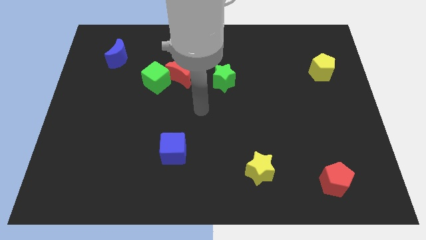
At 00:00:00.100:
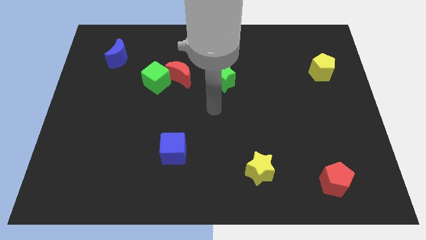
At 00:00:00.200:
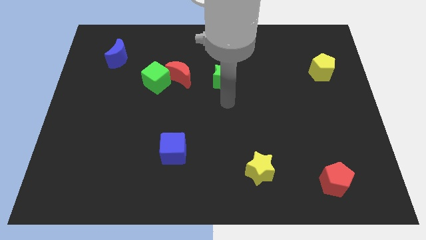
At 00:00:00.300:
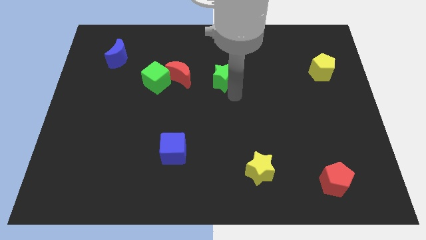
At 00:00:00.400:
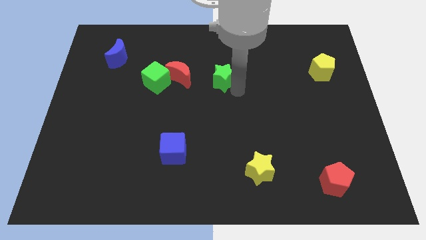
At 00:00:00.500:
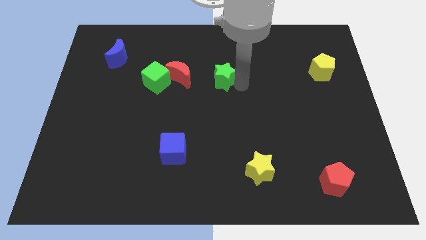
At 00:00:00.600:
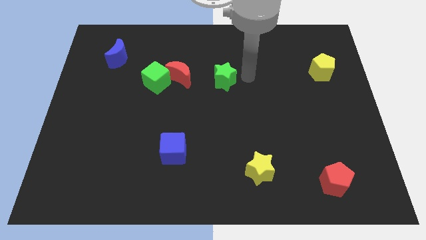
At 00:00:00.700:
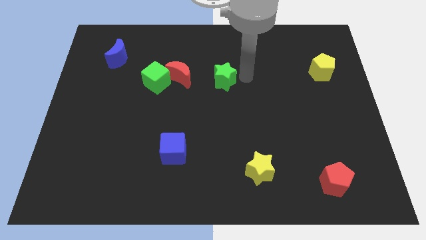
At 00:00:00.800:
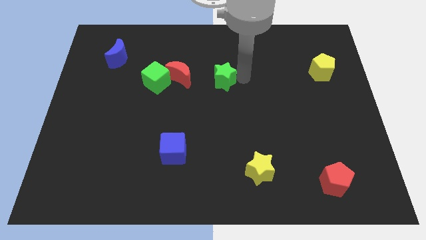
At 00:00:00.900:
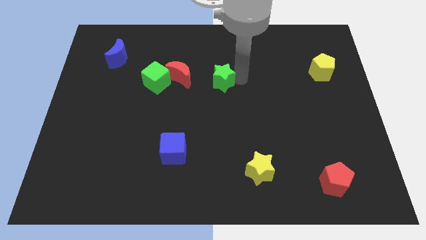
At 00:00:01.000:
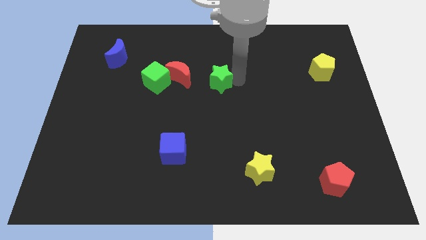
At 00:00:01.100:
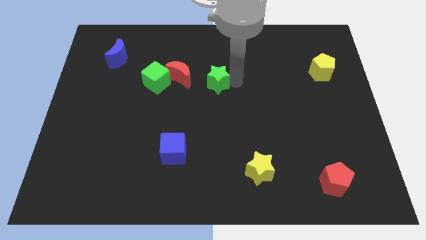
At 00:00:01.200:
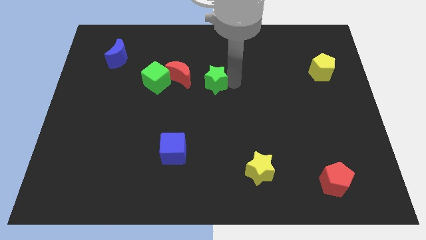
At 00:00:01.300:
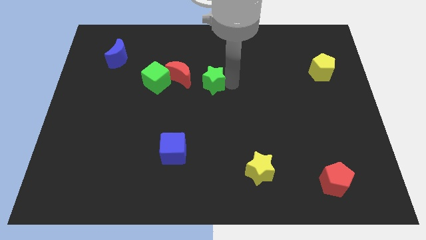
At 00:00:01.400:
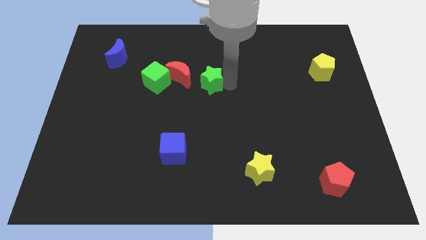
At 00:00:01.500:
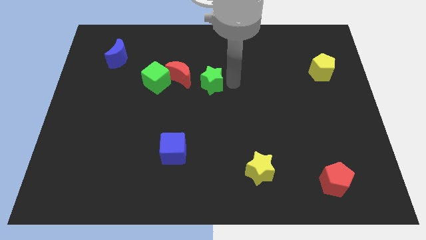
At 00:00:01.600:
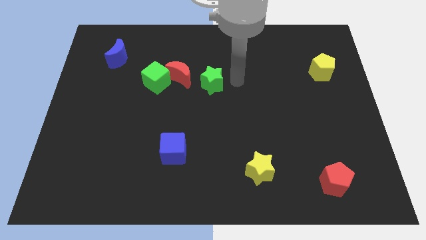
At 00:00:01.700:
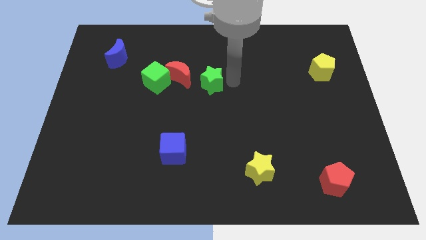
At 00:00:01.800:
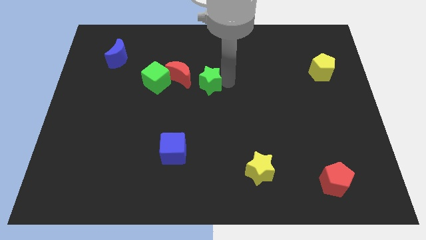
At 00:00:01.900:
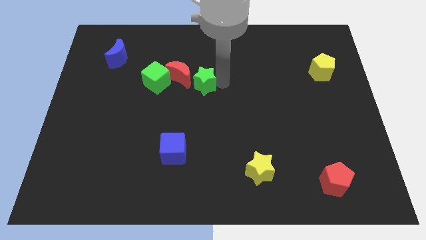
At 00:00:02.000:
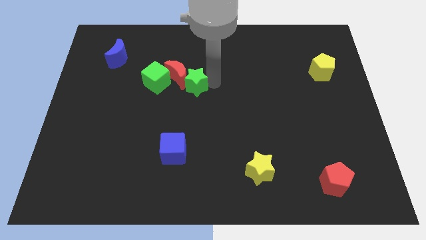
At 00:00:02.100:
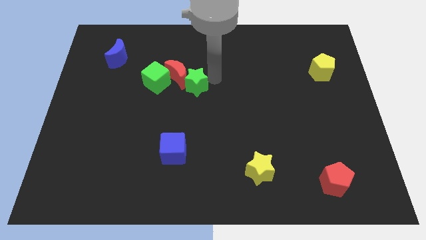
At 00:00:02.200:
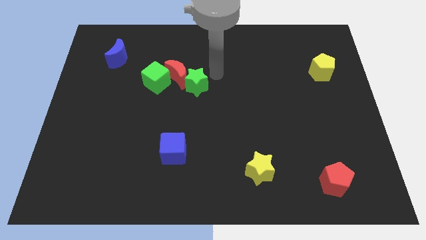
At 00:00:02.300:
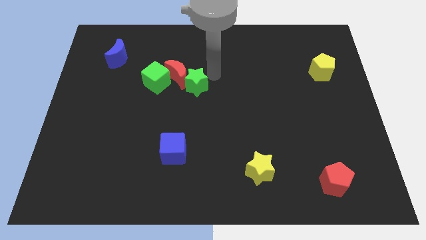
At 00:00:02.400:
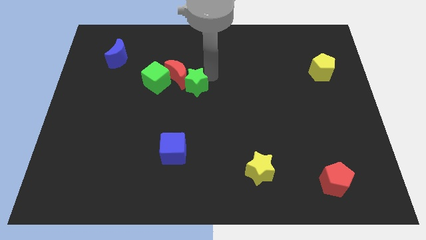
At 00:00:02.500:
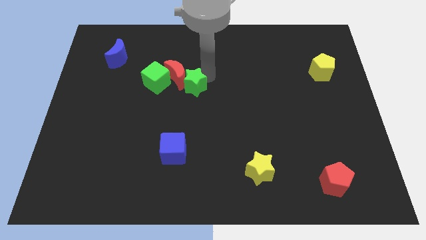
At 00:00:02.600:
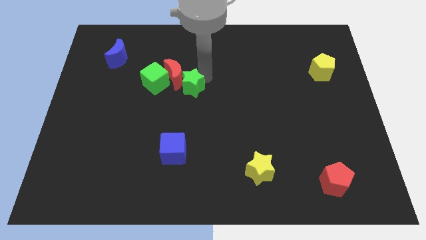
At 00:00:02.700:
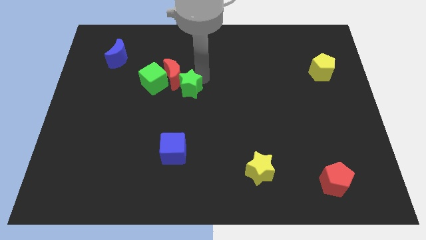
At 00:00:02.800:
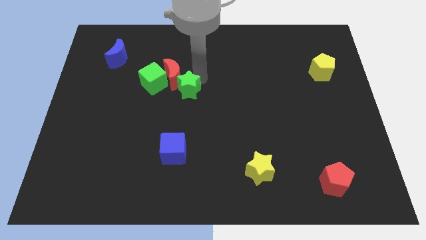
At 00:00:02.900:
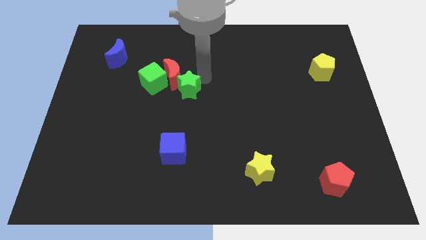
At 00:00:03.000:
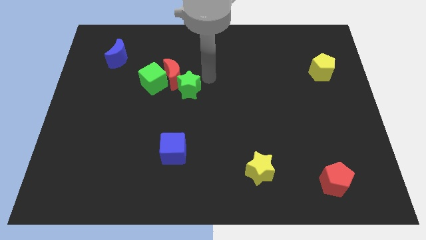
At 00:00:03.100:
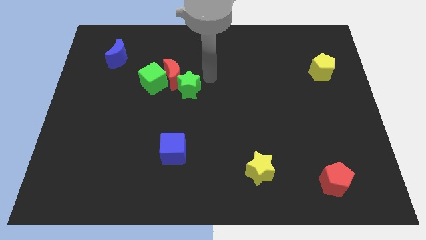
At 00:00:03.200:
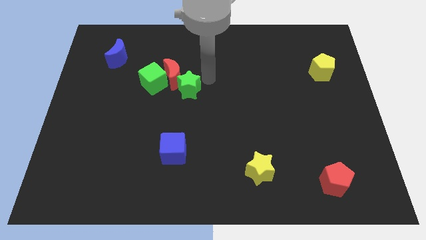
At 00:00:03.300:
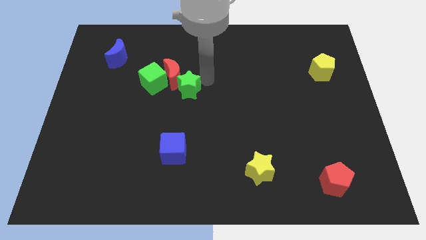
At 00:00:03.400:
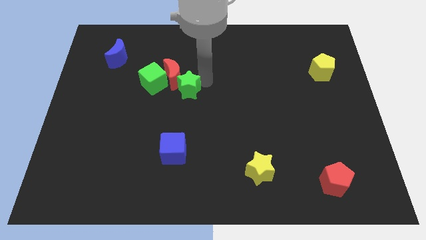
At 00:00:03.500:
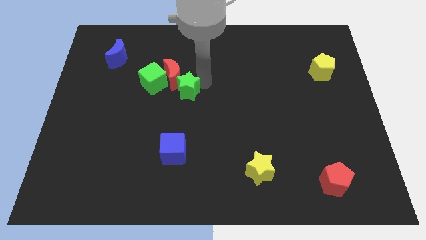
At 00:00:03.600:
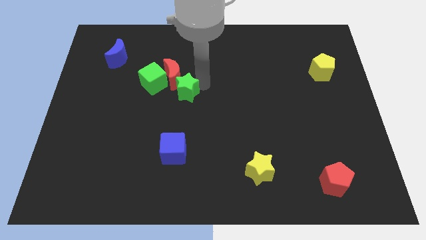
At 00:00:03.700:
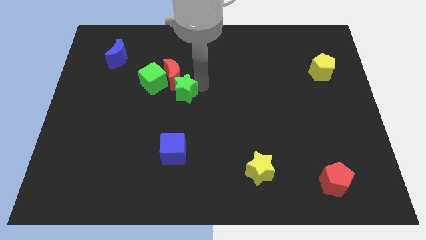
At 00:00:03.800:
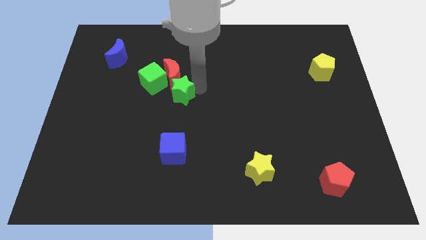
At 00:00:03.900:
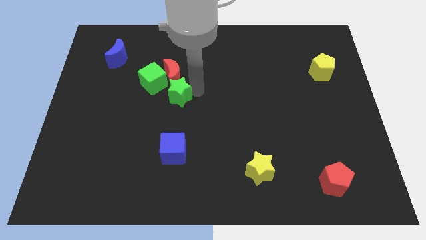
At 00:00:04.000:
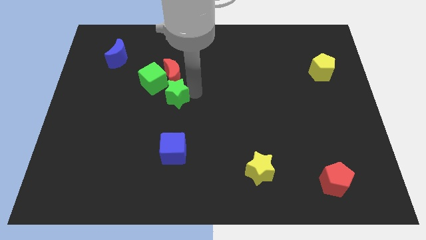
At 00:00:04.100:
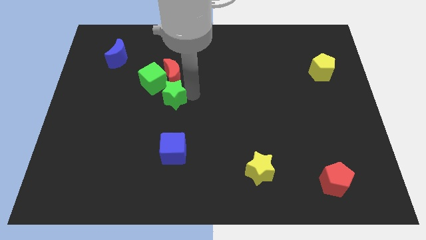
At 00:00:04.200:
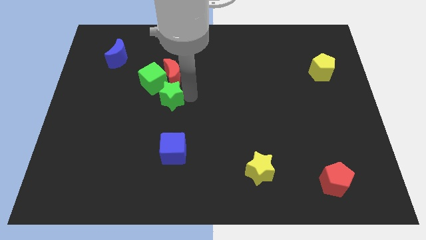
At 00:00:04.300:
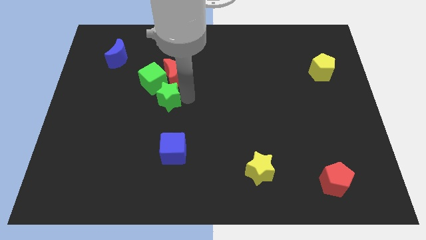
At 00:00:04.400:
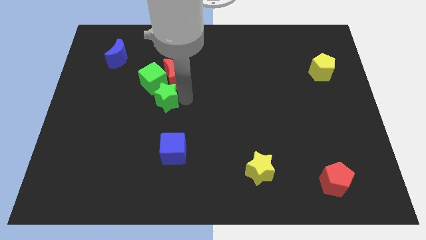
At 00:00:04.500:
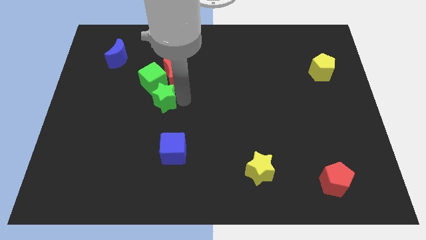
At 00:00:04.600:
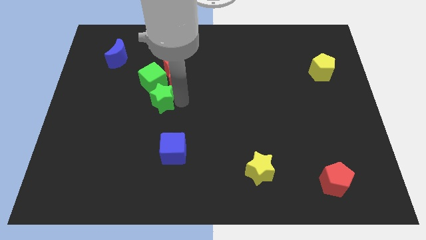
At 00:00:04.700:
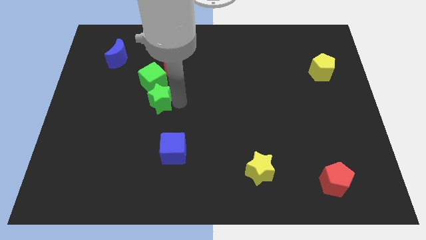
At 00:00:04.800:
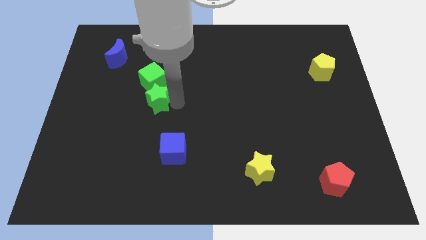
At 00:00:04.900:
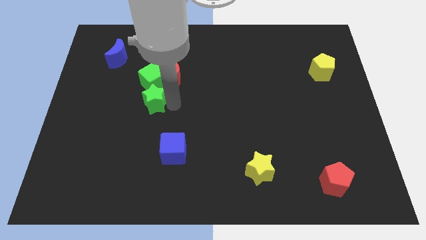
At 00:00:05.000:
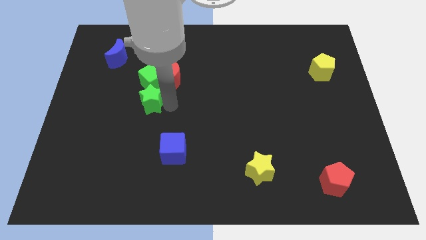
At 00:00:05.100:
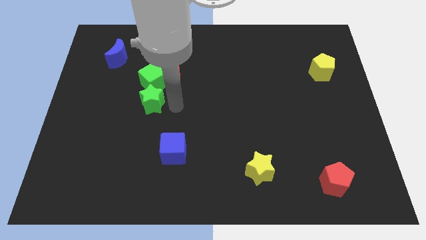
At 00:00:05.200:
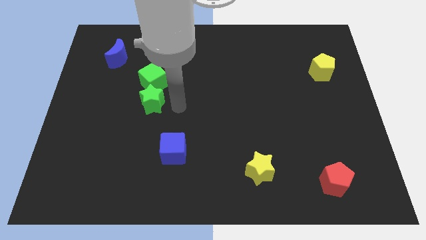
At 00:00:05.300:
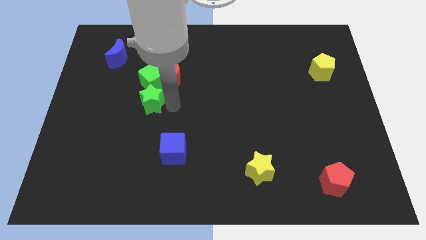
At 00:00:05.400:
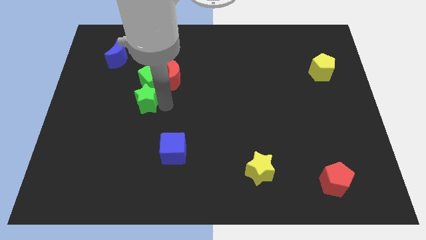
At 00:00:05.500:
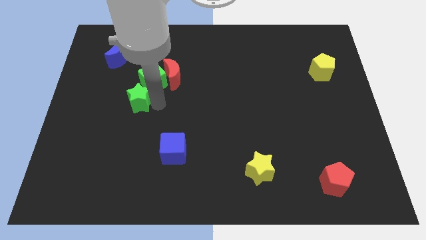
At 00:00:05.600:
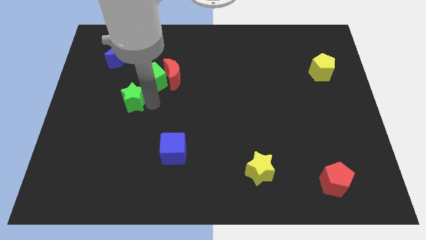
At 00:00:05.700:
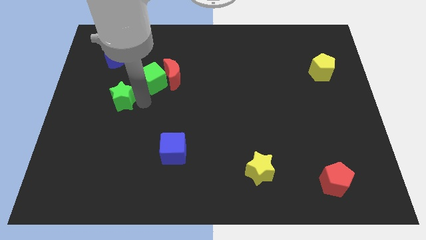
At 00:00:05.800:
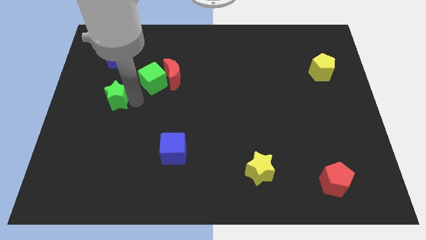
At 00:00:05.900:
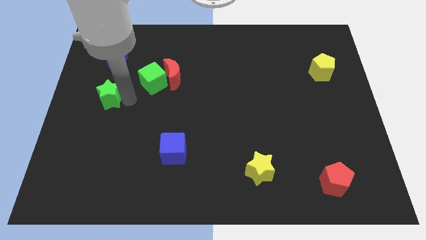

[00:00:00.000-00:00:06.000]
slide the green star to the center left

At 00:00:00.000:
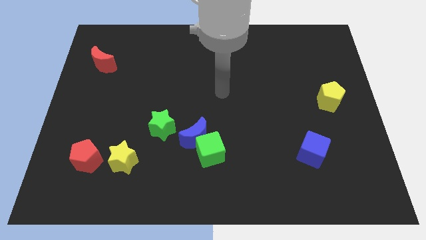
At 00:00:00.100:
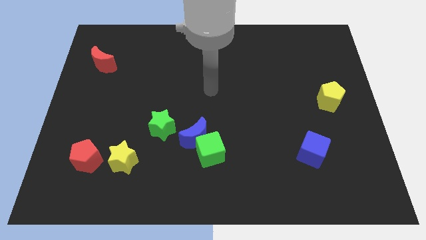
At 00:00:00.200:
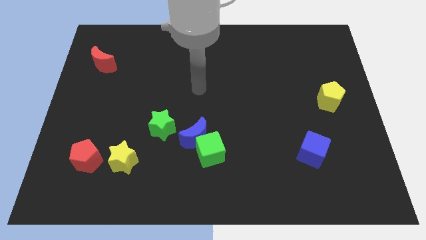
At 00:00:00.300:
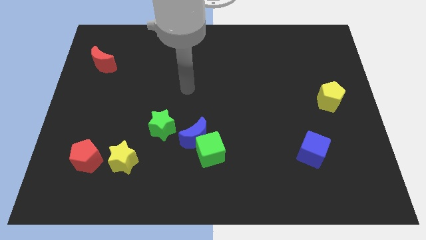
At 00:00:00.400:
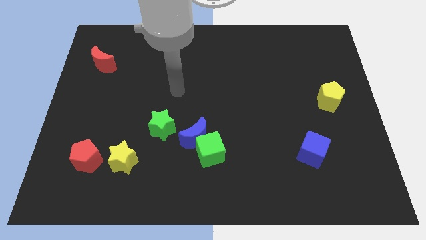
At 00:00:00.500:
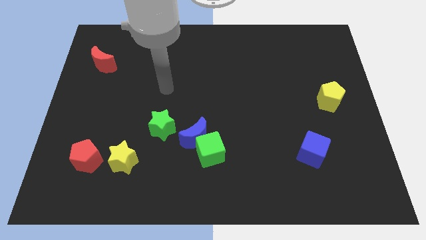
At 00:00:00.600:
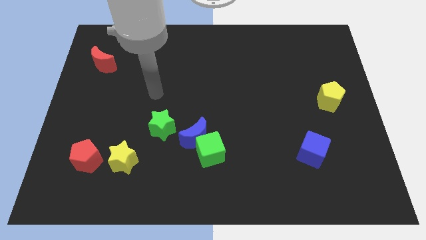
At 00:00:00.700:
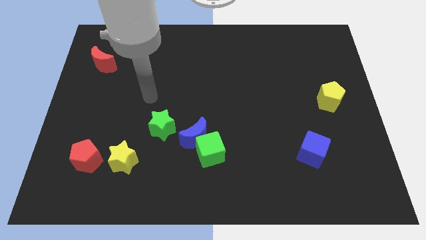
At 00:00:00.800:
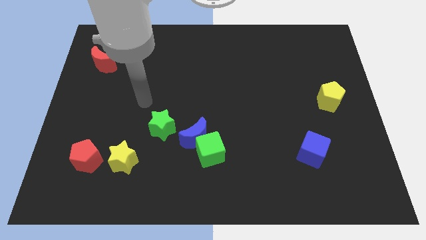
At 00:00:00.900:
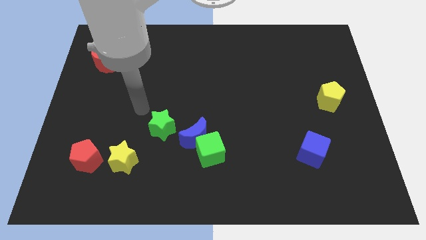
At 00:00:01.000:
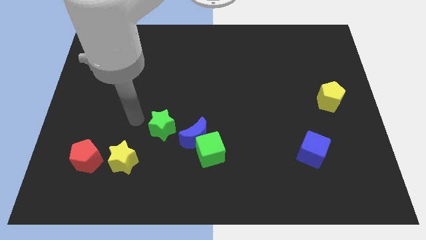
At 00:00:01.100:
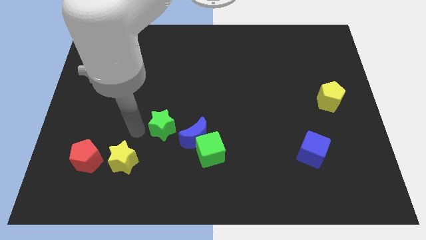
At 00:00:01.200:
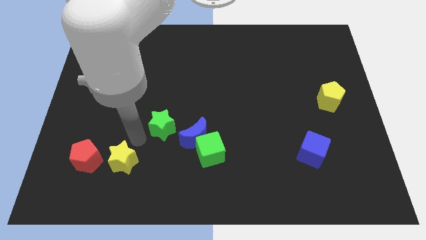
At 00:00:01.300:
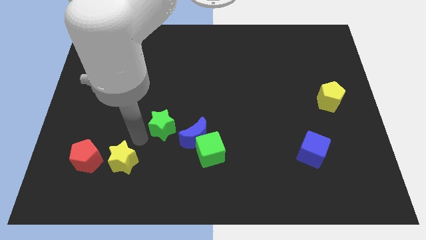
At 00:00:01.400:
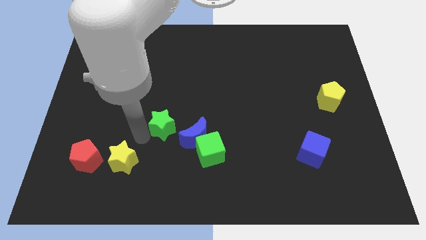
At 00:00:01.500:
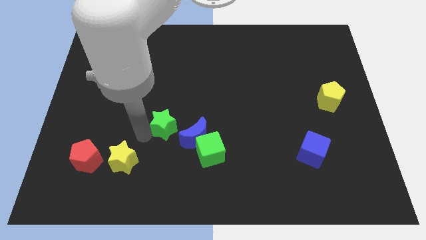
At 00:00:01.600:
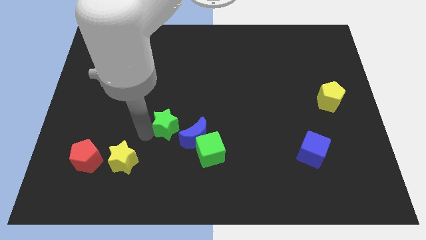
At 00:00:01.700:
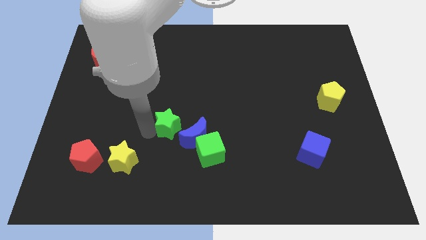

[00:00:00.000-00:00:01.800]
push the green star to the middle of the board
